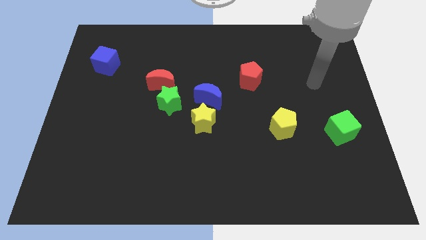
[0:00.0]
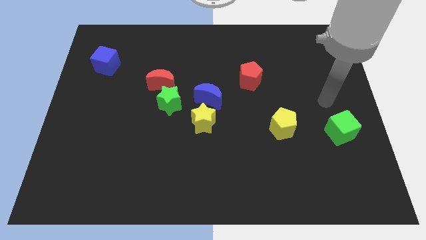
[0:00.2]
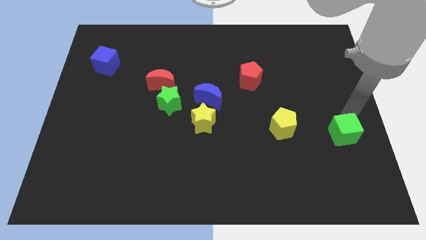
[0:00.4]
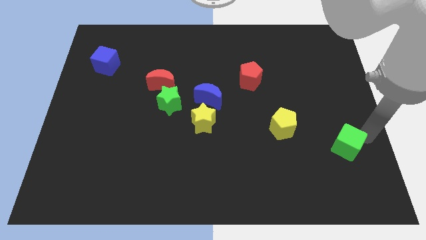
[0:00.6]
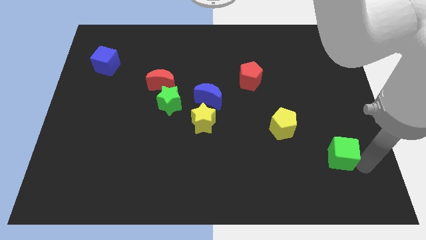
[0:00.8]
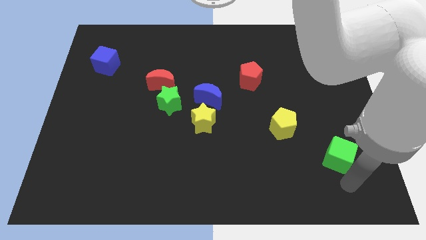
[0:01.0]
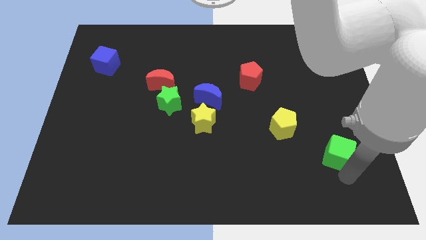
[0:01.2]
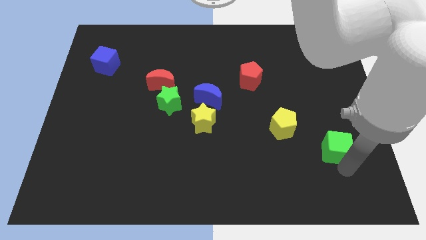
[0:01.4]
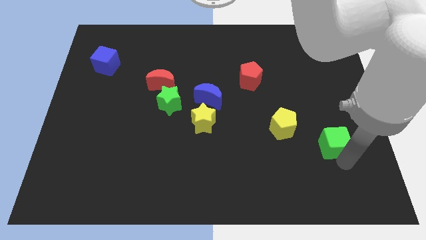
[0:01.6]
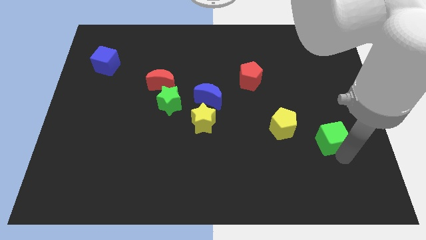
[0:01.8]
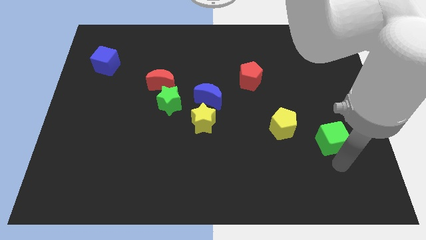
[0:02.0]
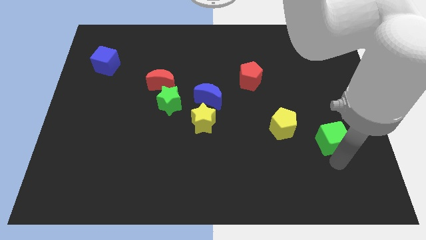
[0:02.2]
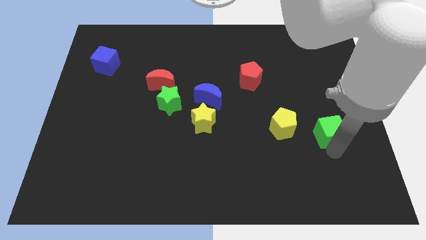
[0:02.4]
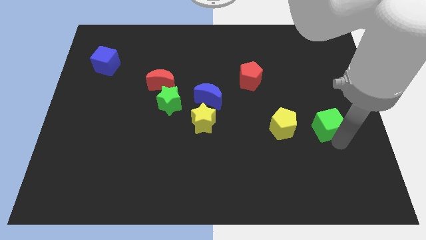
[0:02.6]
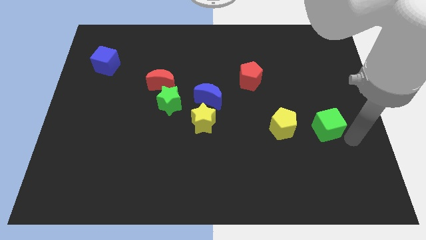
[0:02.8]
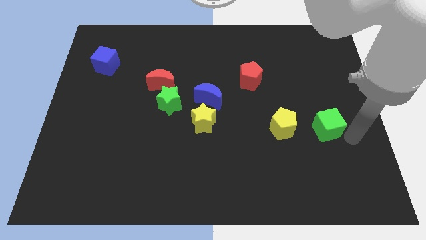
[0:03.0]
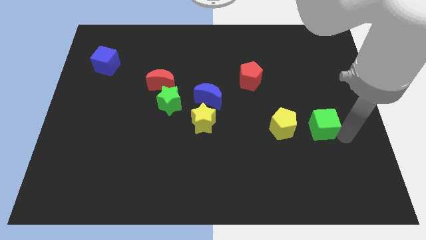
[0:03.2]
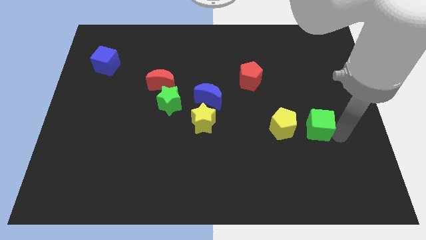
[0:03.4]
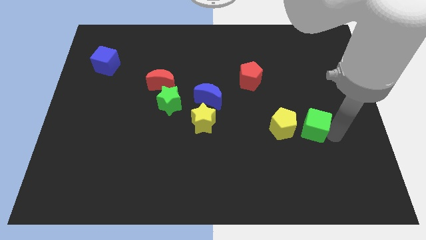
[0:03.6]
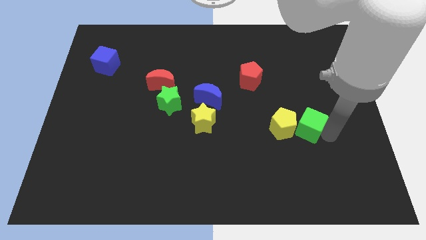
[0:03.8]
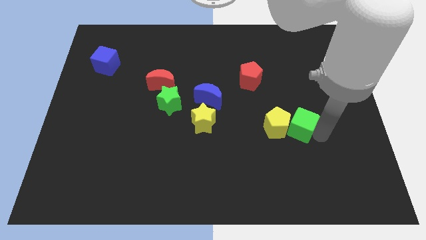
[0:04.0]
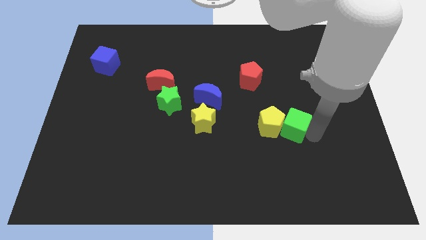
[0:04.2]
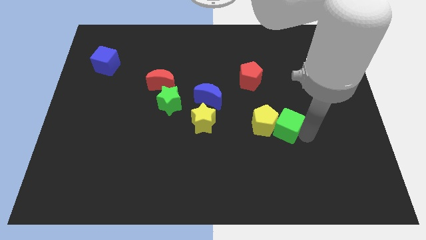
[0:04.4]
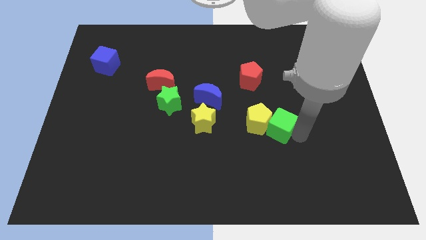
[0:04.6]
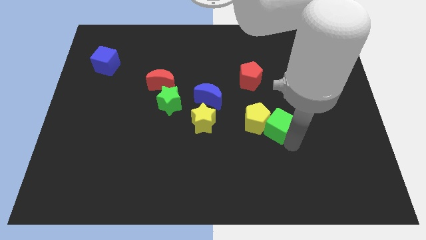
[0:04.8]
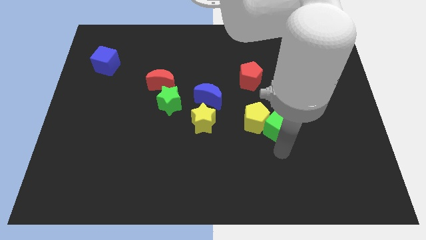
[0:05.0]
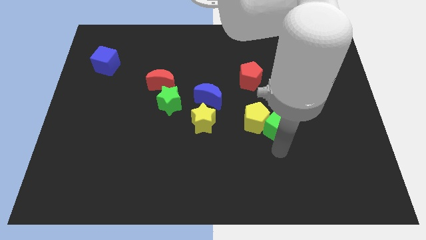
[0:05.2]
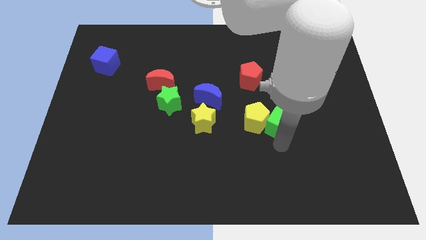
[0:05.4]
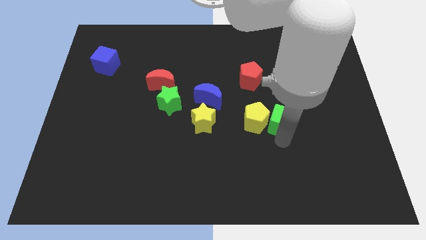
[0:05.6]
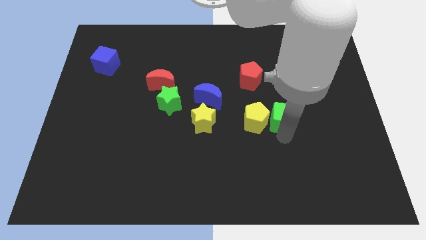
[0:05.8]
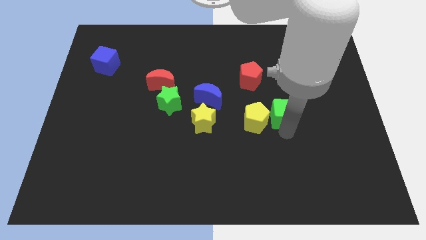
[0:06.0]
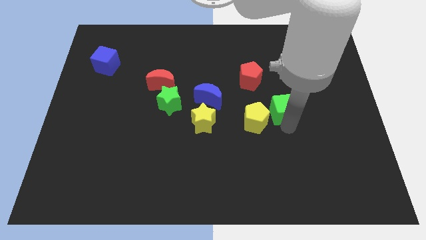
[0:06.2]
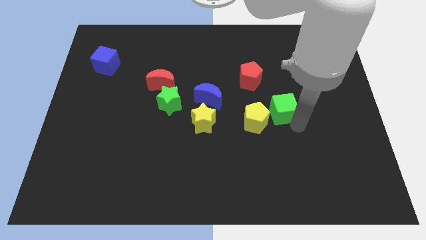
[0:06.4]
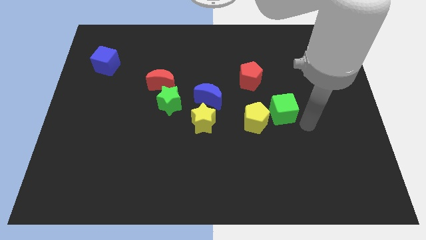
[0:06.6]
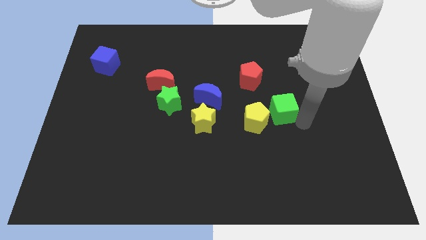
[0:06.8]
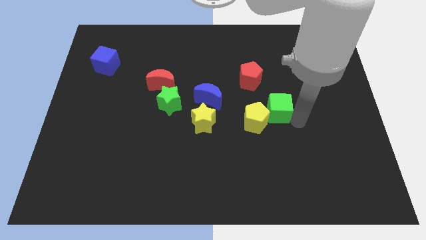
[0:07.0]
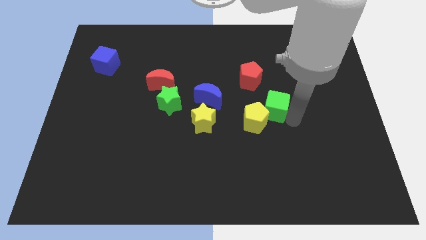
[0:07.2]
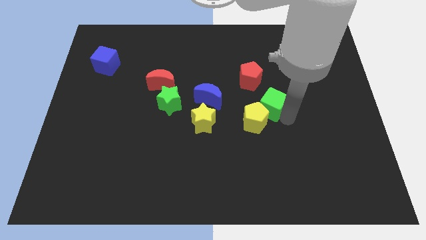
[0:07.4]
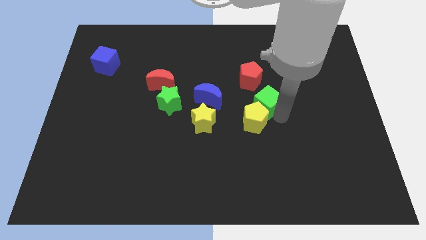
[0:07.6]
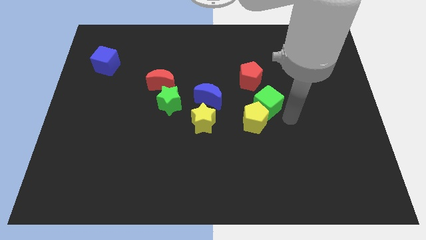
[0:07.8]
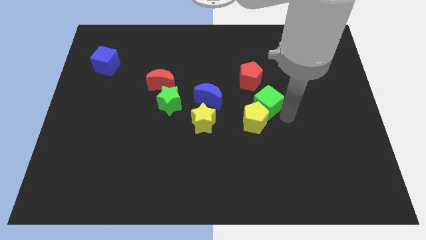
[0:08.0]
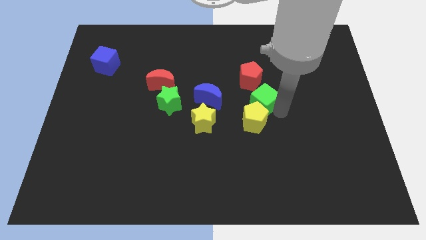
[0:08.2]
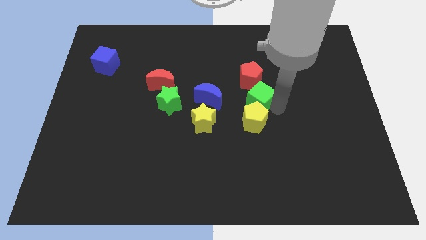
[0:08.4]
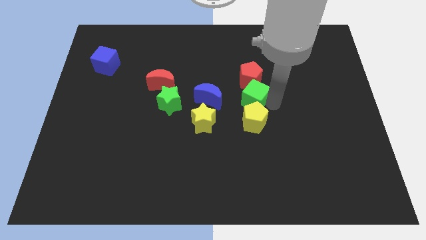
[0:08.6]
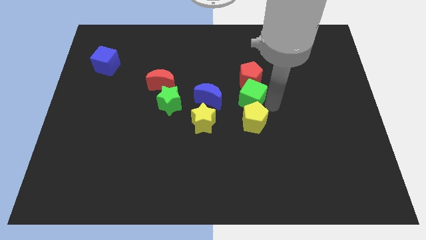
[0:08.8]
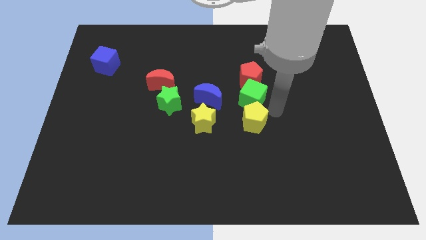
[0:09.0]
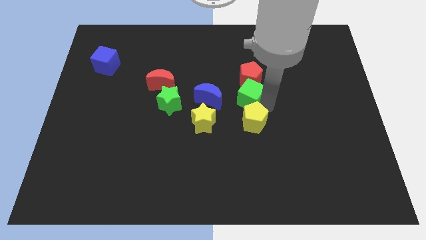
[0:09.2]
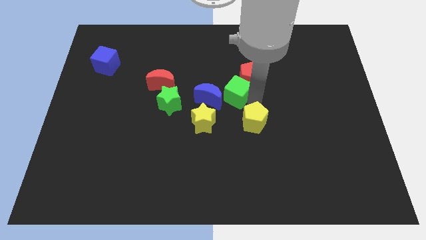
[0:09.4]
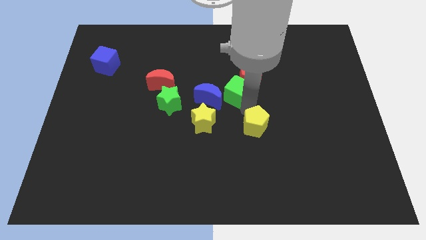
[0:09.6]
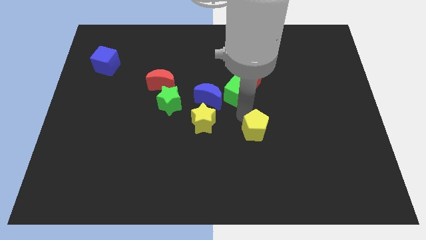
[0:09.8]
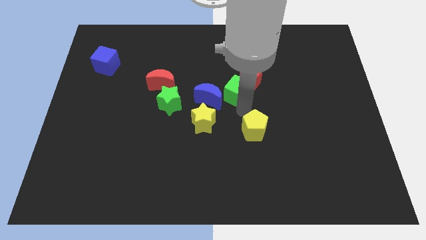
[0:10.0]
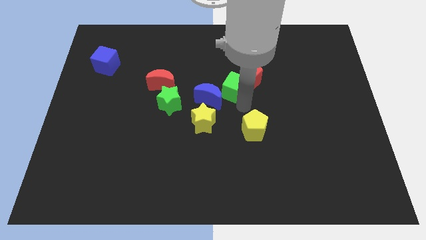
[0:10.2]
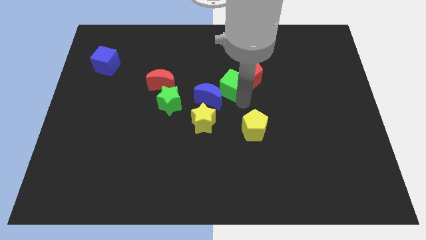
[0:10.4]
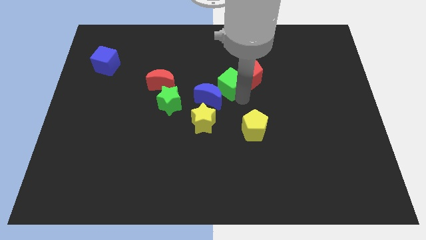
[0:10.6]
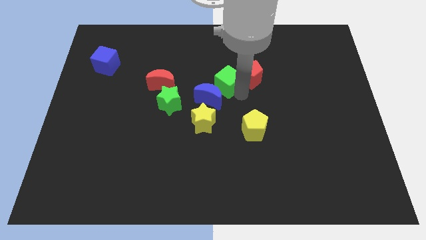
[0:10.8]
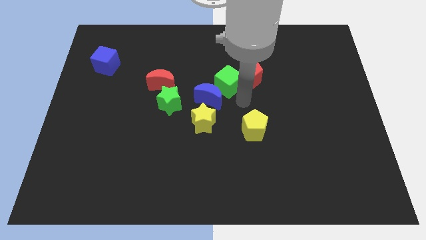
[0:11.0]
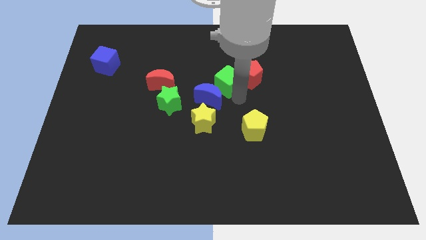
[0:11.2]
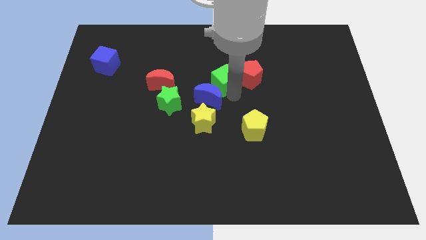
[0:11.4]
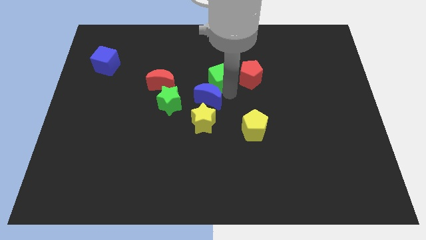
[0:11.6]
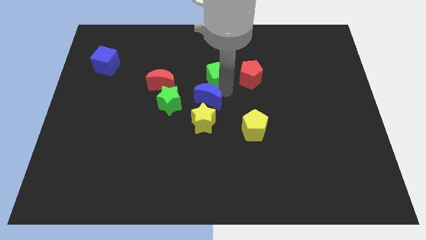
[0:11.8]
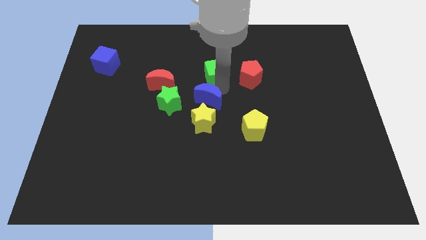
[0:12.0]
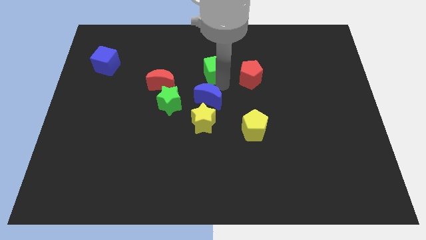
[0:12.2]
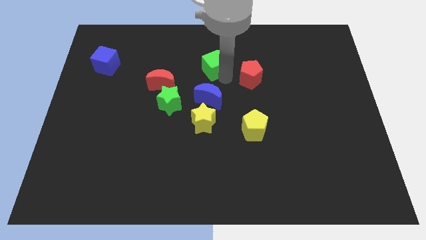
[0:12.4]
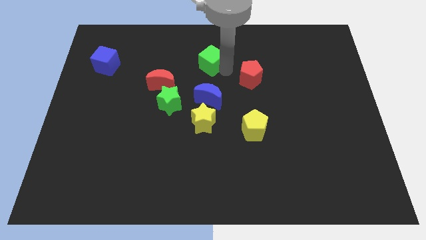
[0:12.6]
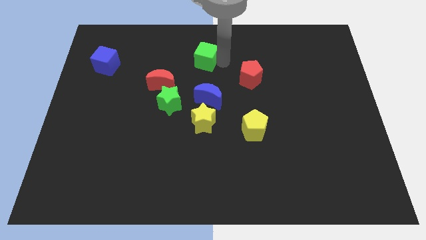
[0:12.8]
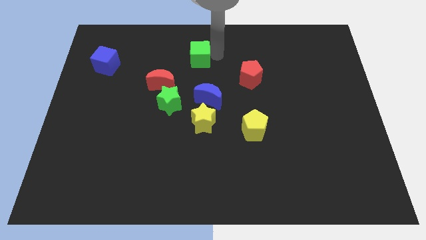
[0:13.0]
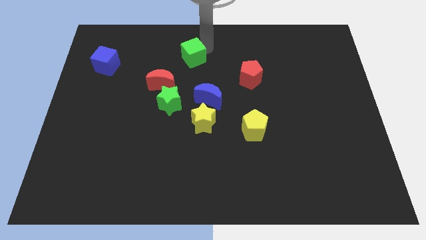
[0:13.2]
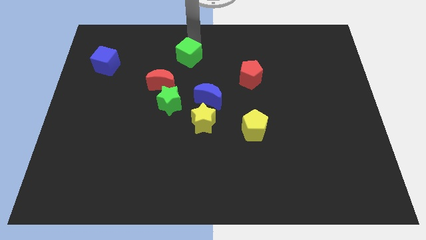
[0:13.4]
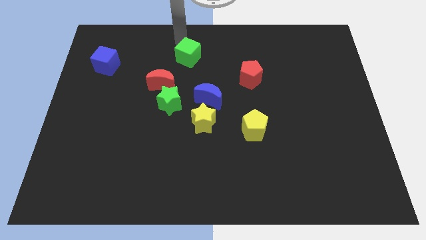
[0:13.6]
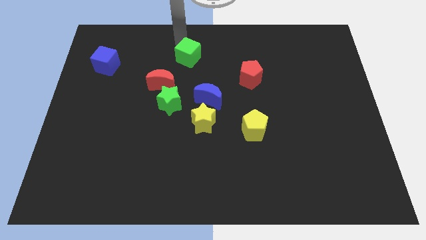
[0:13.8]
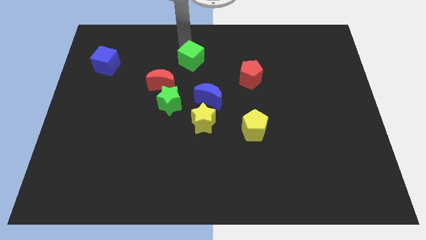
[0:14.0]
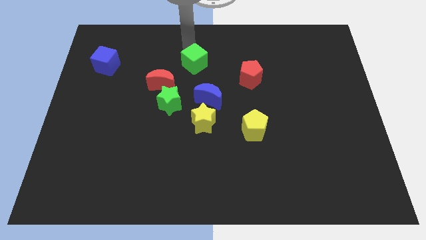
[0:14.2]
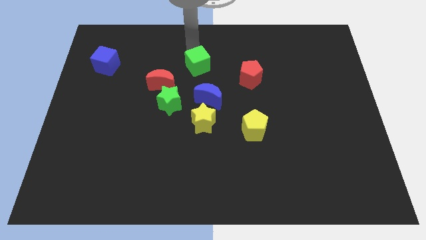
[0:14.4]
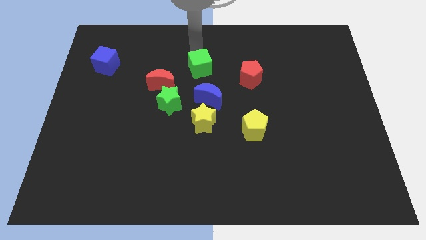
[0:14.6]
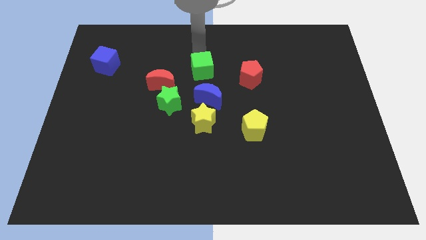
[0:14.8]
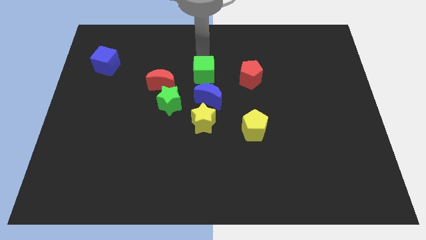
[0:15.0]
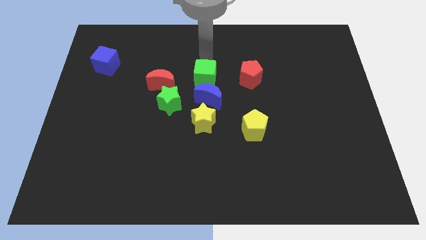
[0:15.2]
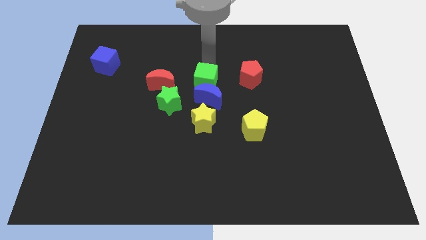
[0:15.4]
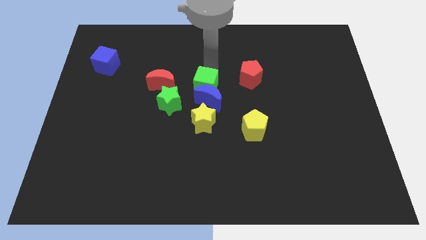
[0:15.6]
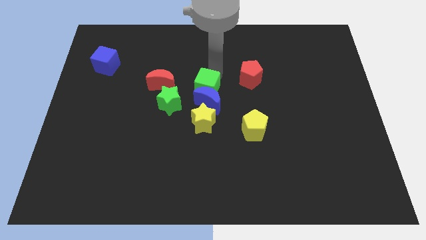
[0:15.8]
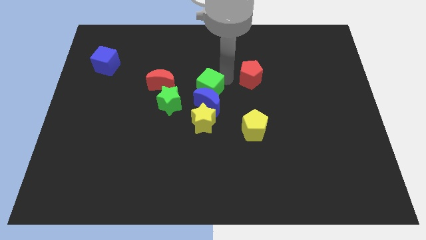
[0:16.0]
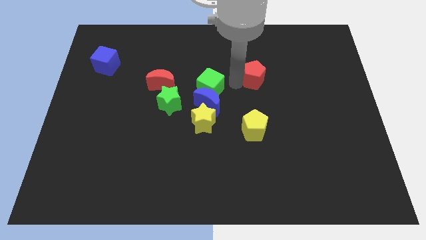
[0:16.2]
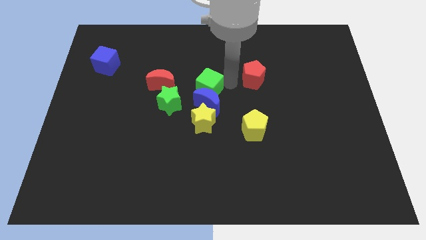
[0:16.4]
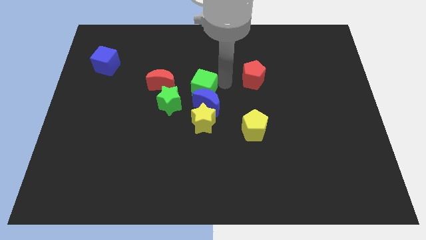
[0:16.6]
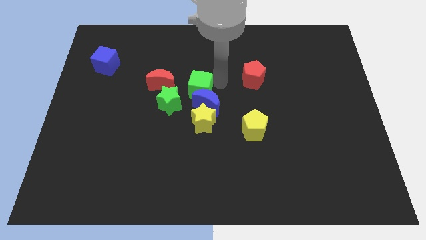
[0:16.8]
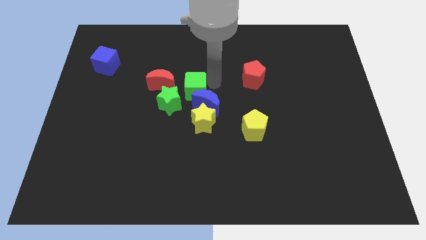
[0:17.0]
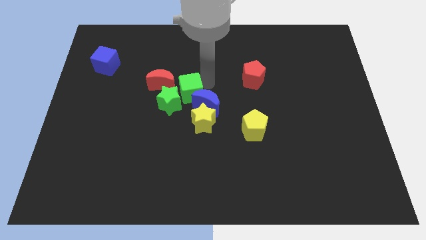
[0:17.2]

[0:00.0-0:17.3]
push the green cube to the green star
